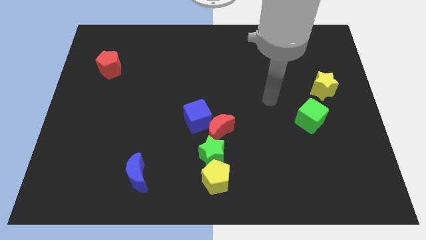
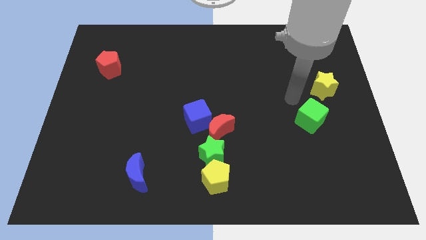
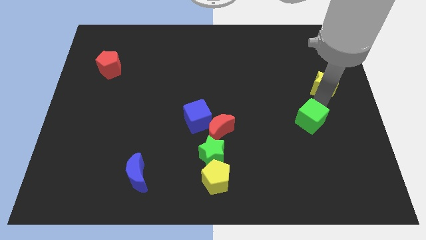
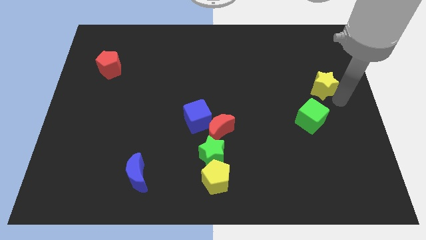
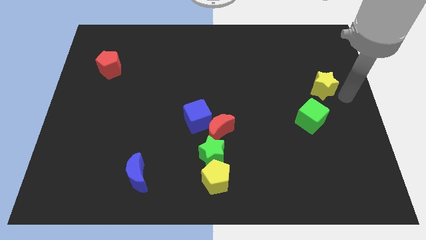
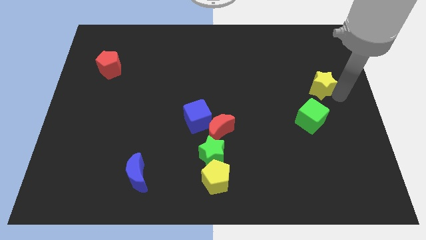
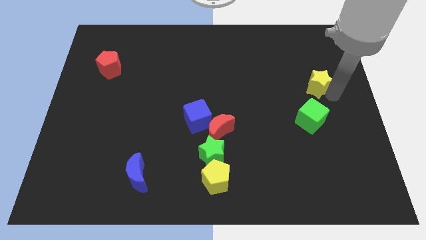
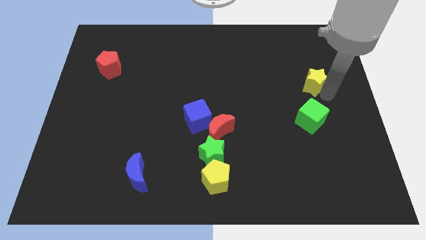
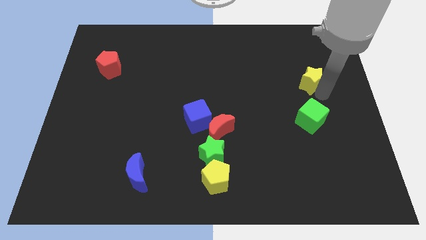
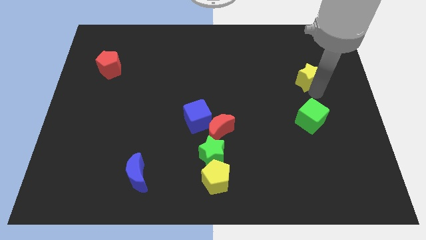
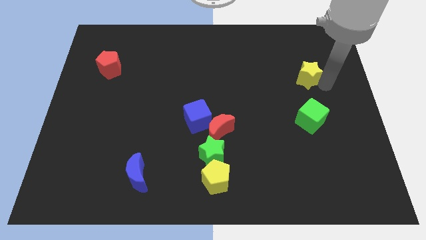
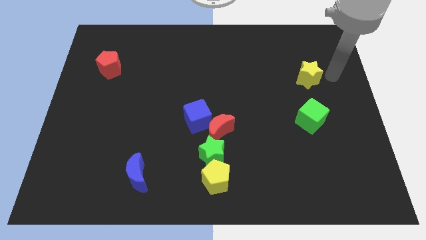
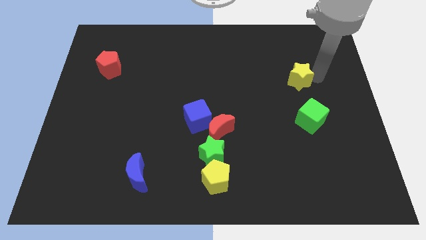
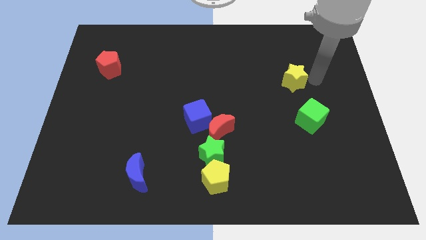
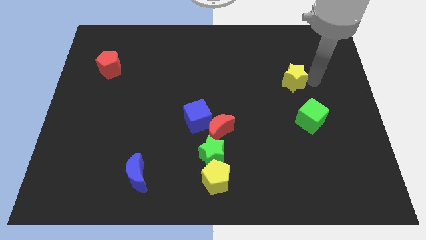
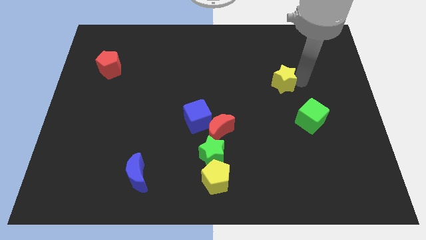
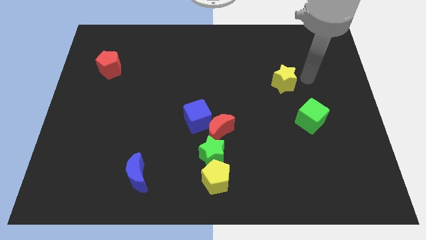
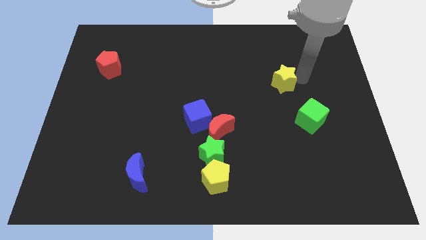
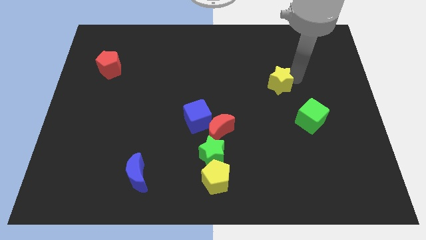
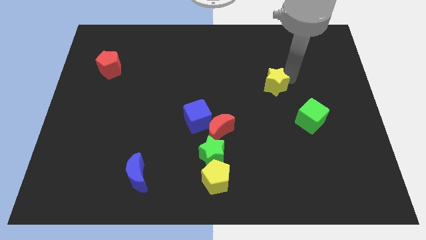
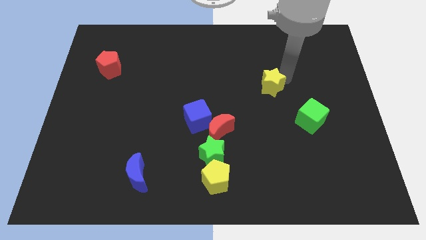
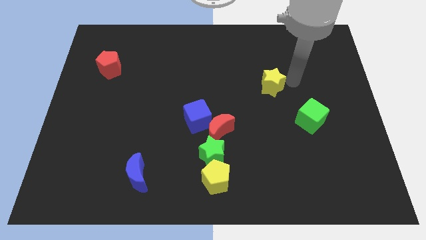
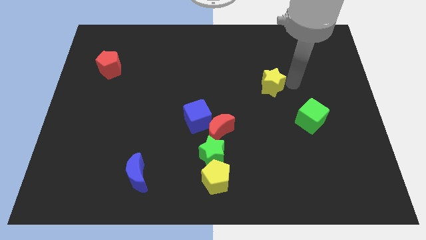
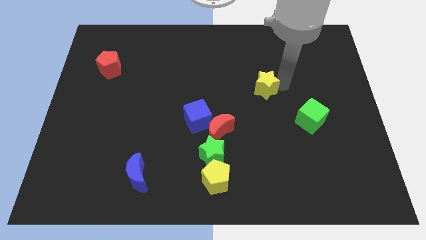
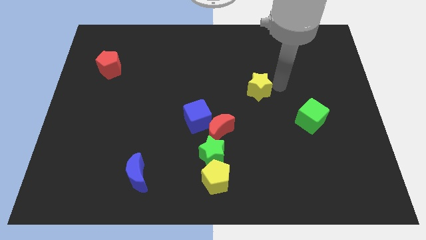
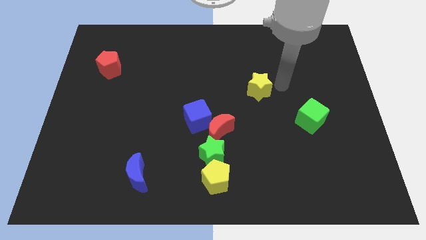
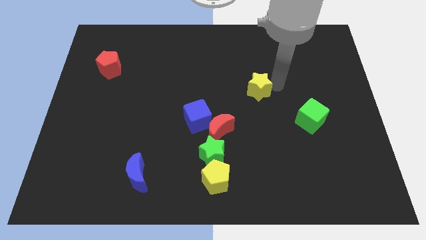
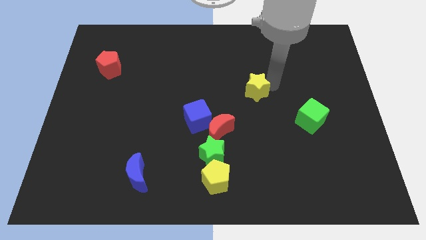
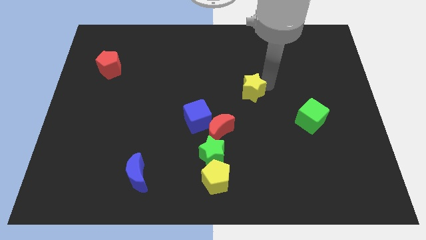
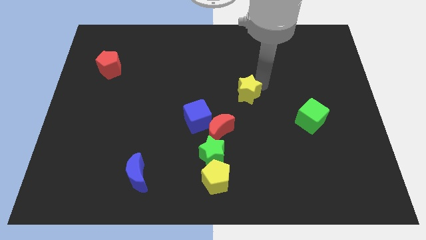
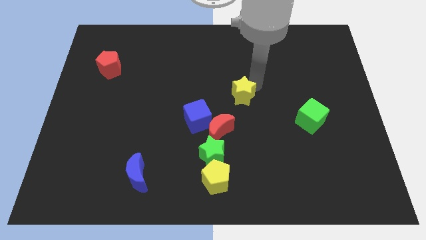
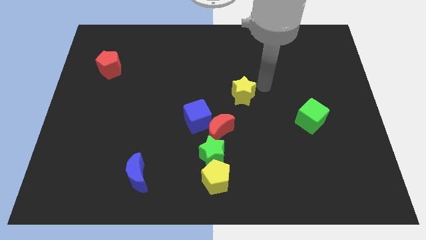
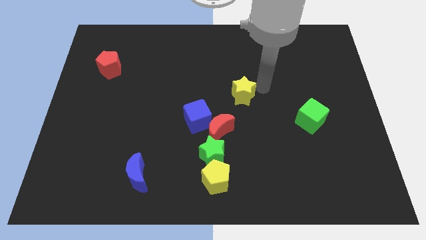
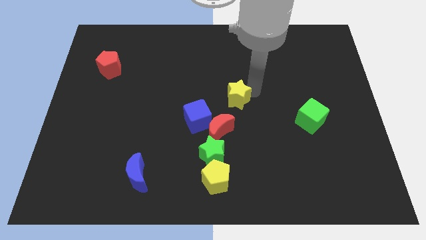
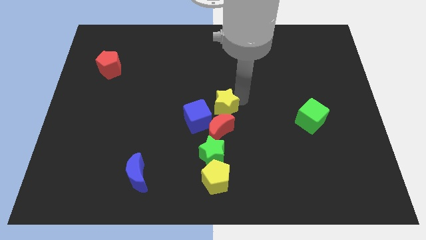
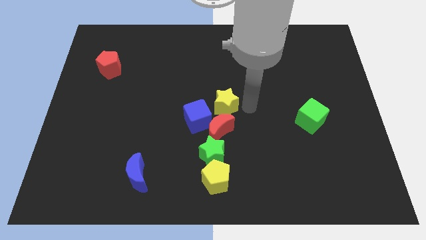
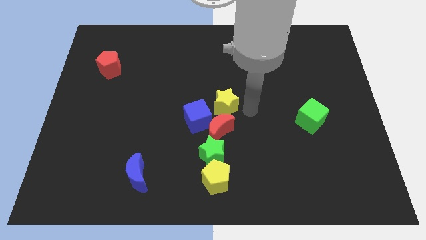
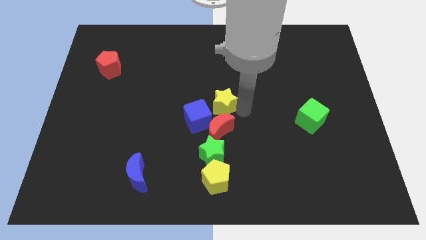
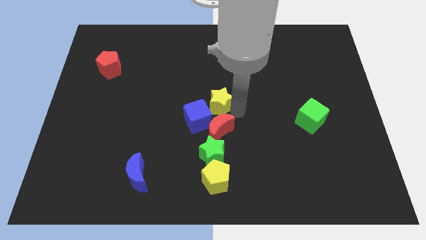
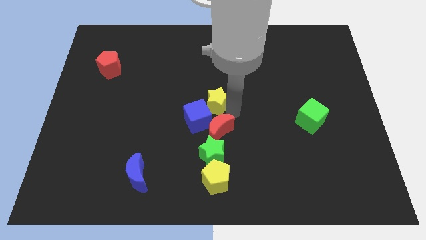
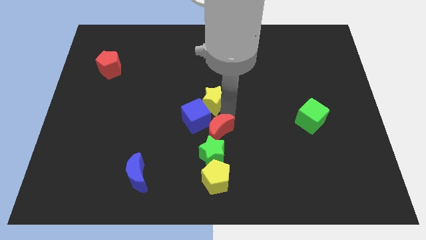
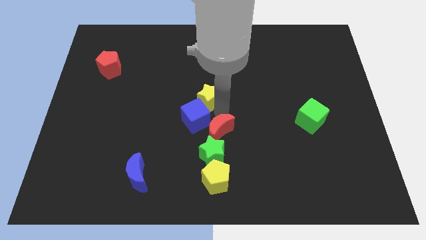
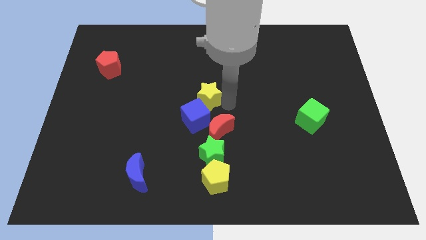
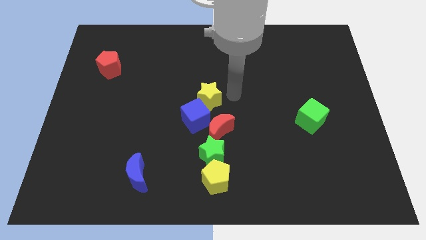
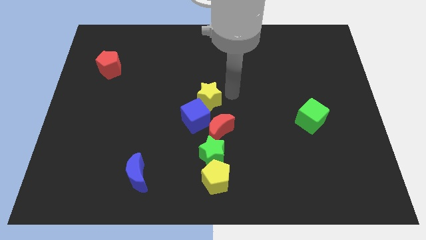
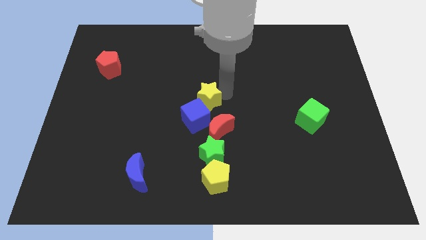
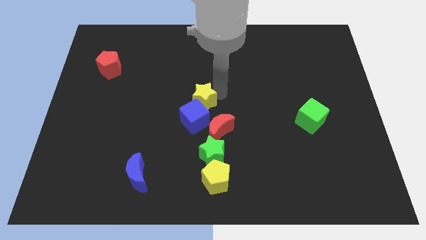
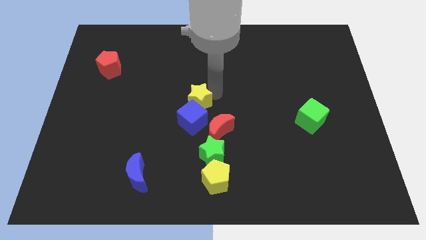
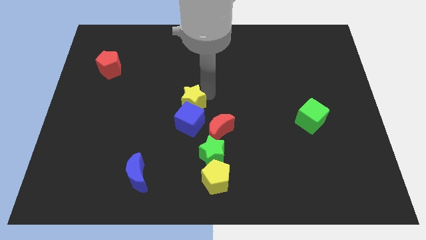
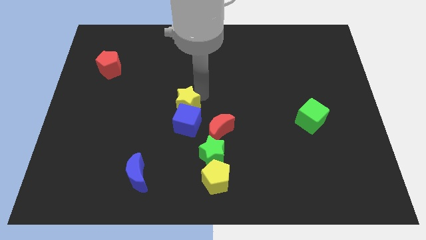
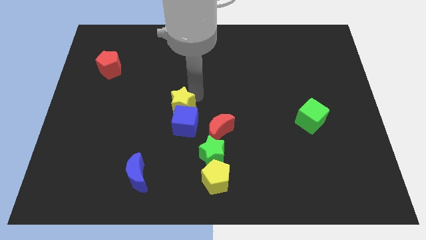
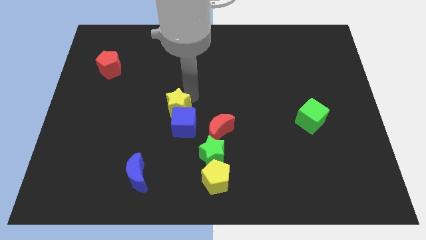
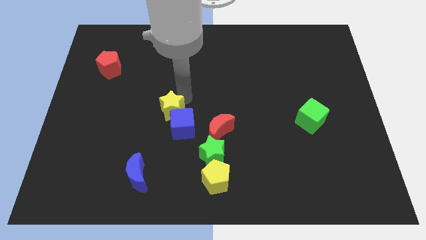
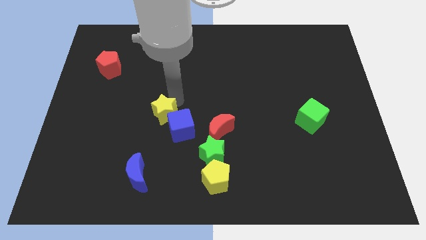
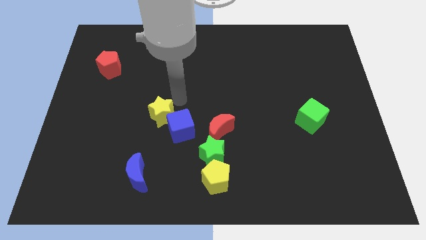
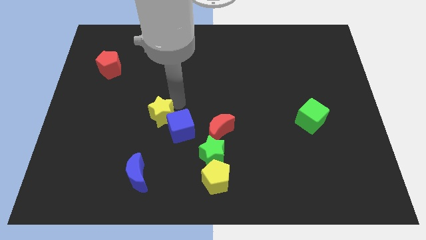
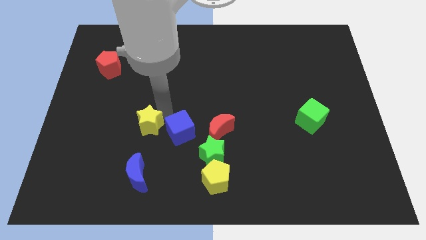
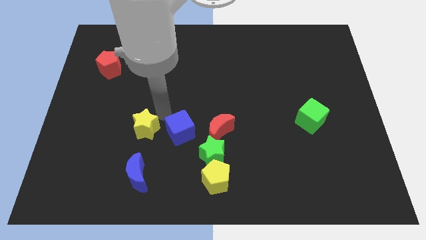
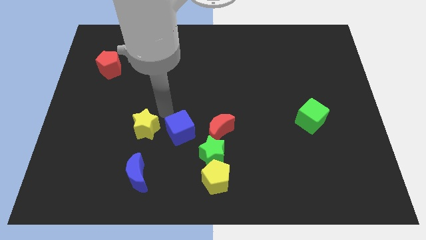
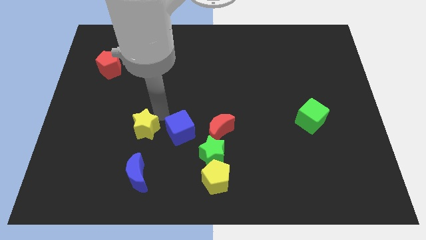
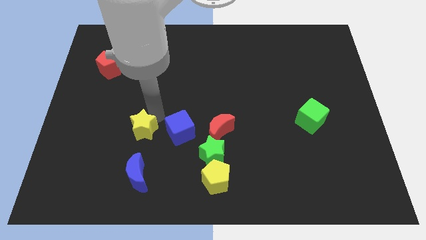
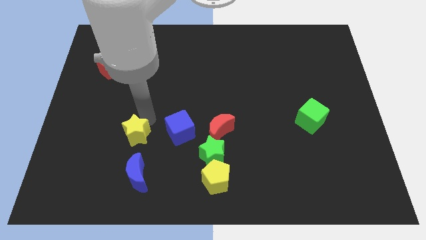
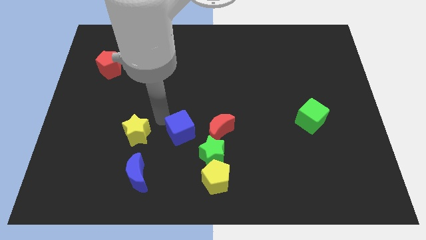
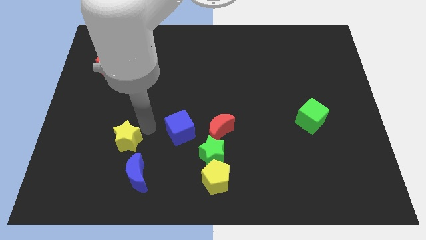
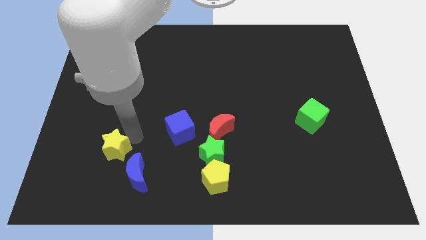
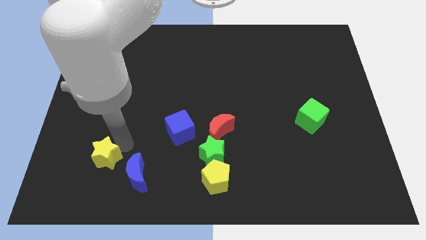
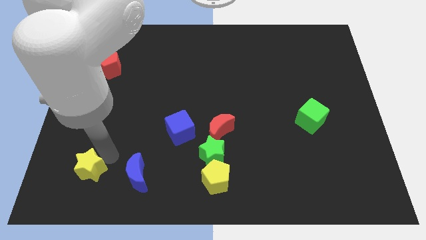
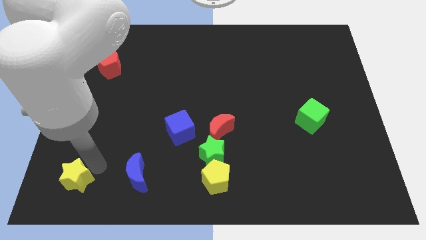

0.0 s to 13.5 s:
push the yellow star to the bottom left of the board
